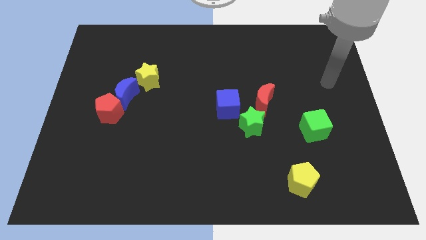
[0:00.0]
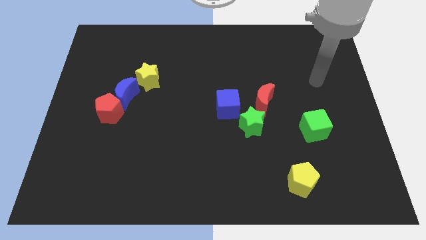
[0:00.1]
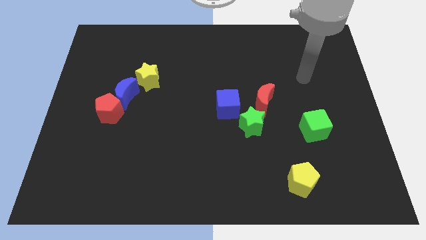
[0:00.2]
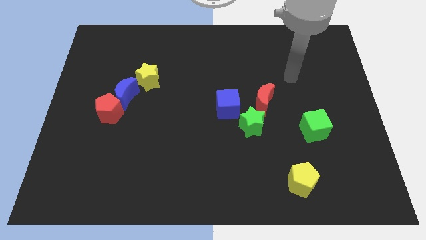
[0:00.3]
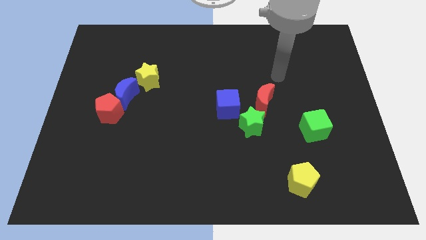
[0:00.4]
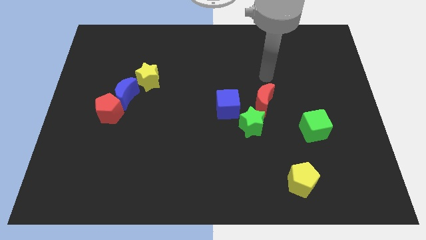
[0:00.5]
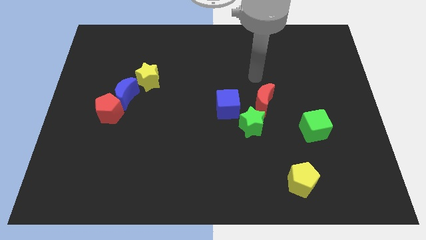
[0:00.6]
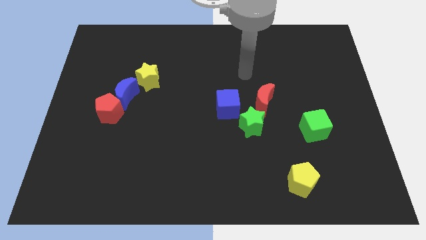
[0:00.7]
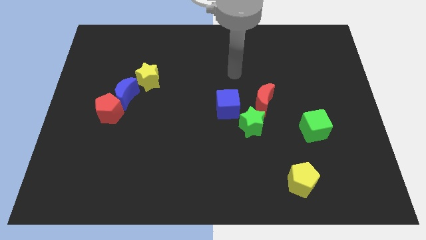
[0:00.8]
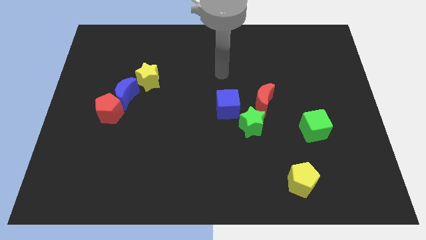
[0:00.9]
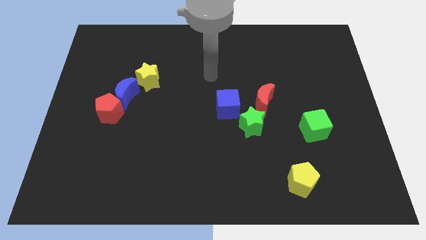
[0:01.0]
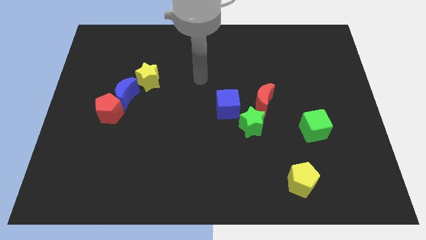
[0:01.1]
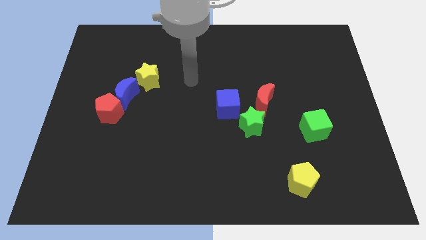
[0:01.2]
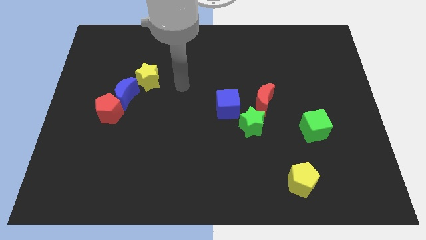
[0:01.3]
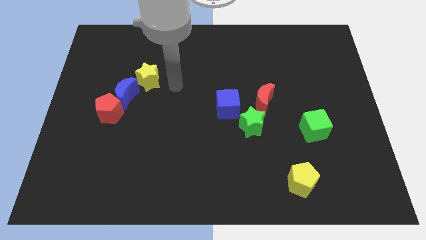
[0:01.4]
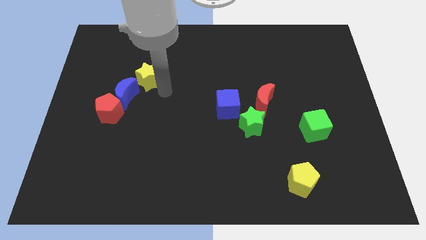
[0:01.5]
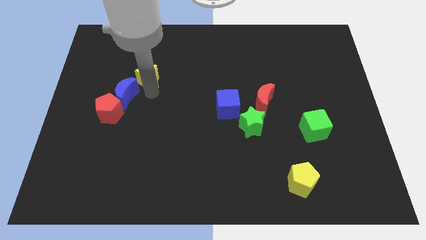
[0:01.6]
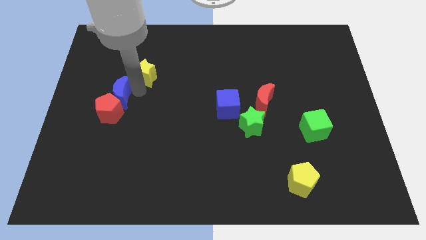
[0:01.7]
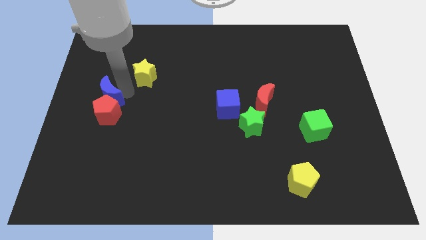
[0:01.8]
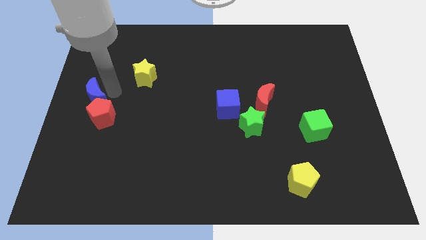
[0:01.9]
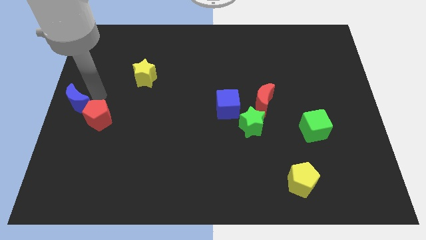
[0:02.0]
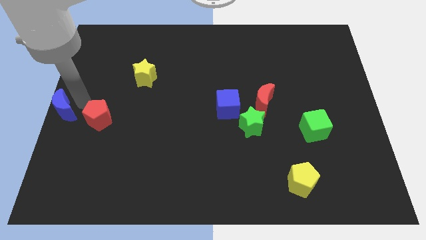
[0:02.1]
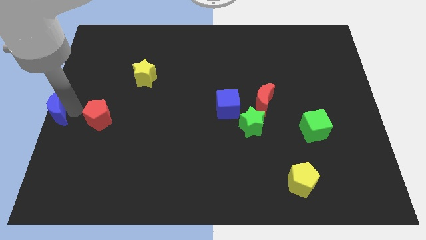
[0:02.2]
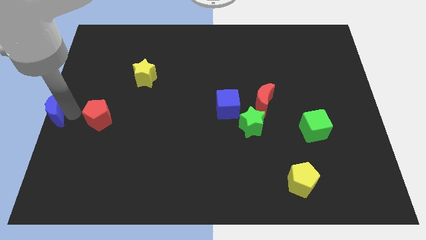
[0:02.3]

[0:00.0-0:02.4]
separate the red pentagon from the blue moon

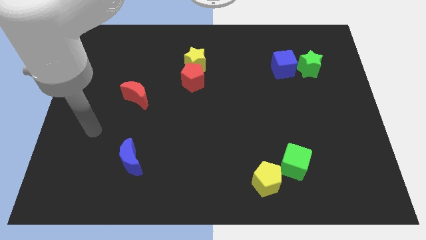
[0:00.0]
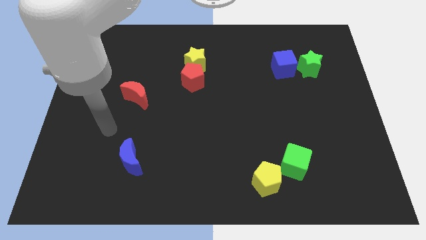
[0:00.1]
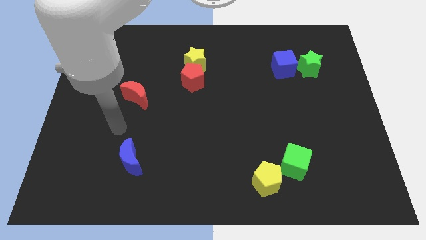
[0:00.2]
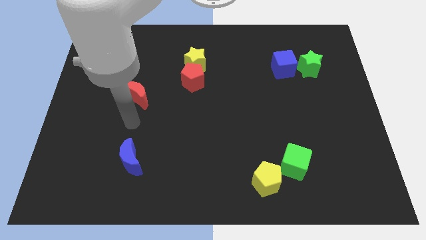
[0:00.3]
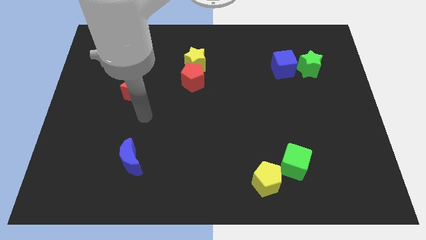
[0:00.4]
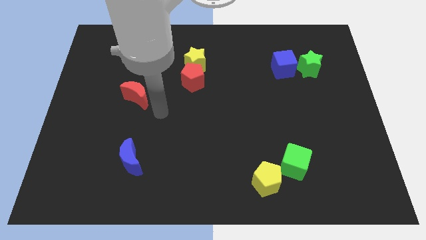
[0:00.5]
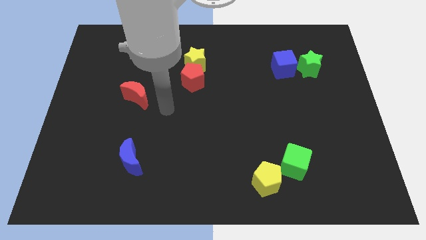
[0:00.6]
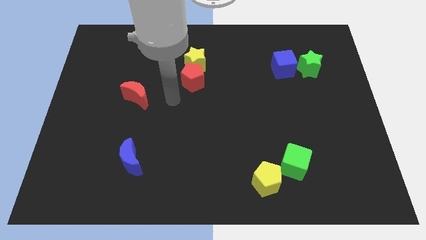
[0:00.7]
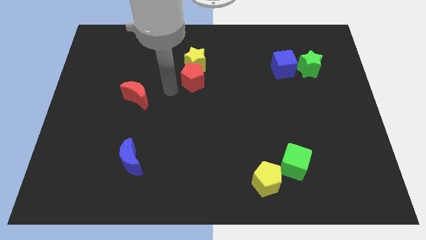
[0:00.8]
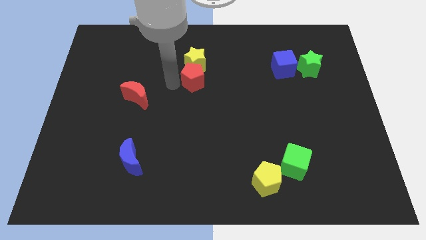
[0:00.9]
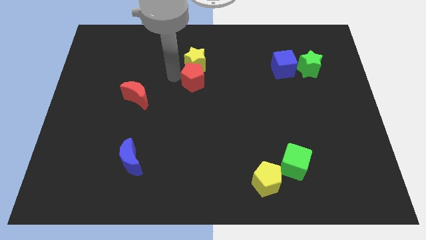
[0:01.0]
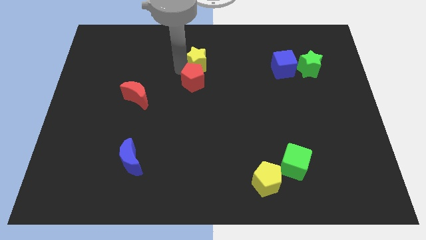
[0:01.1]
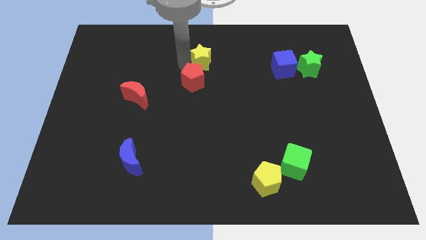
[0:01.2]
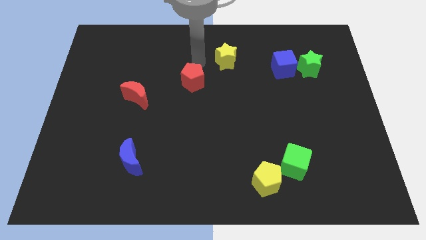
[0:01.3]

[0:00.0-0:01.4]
pull the red pentagon apart from the yellow star

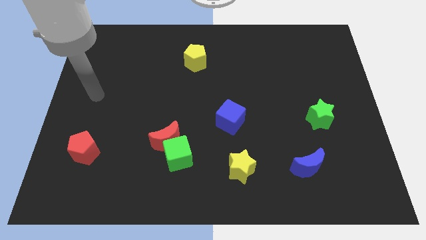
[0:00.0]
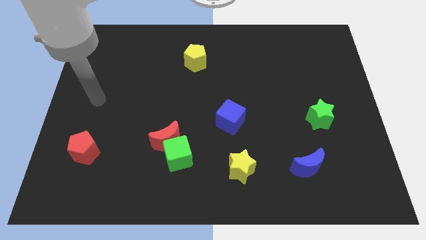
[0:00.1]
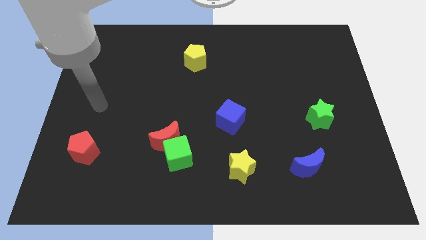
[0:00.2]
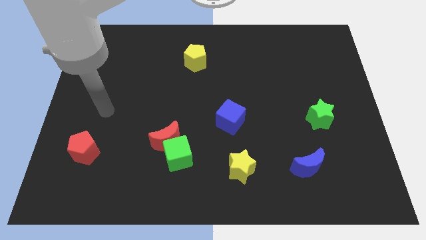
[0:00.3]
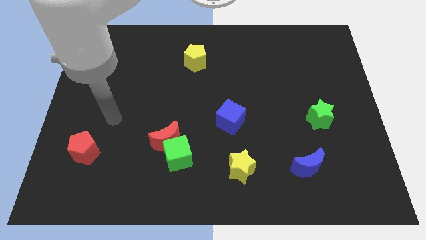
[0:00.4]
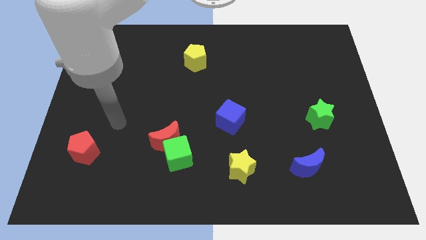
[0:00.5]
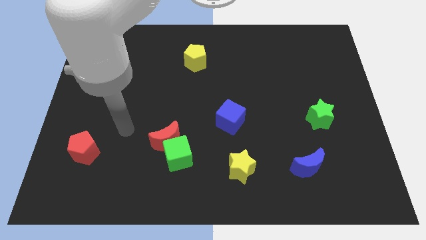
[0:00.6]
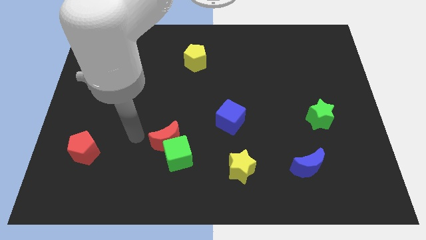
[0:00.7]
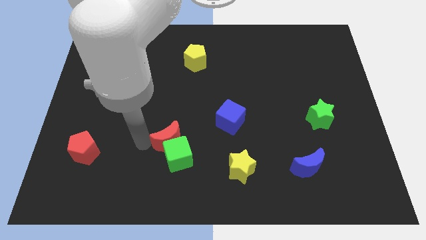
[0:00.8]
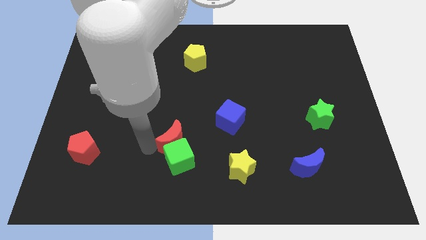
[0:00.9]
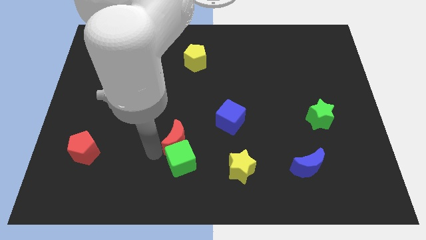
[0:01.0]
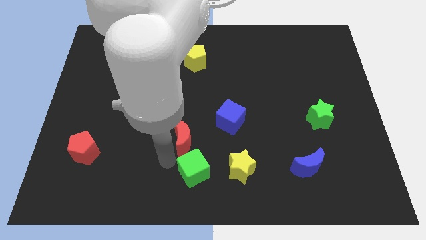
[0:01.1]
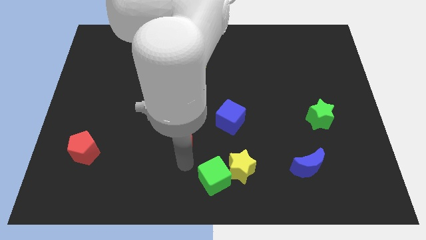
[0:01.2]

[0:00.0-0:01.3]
move the red moon away from the green cube

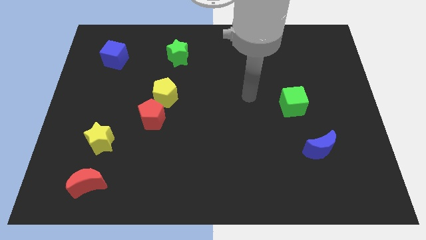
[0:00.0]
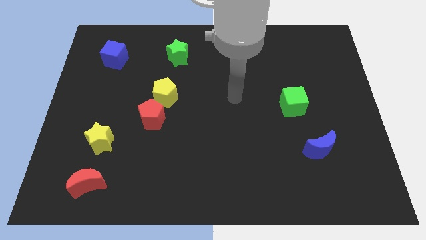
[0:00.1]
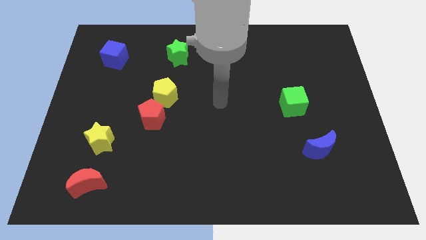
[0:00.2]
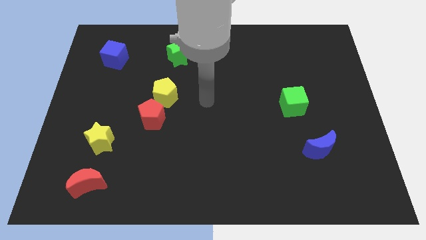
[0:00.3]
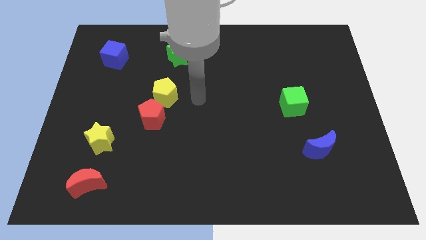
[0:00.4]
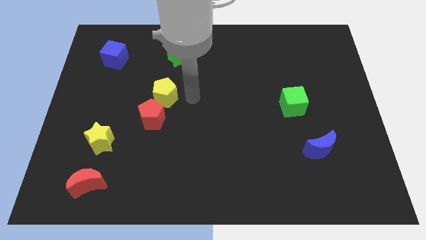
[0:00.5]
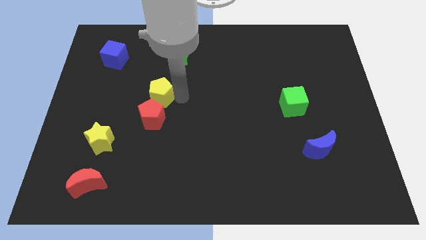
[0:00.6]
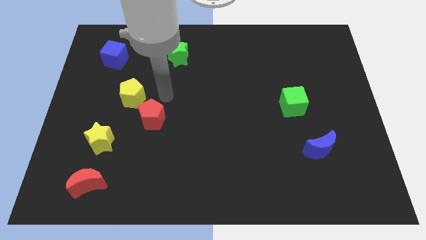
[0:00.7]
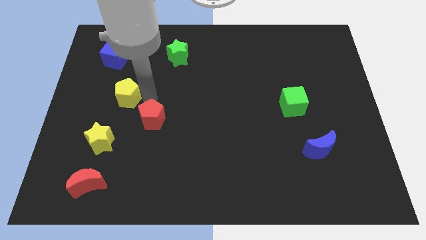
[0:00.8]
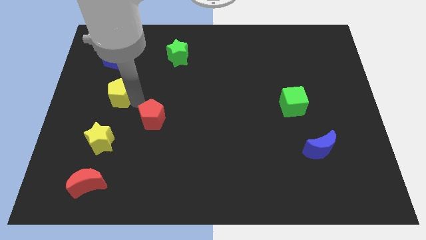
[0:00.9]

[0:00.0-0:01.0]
separate the red pentagon from the yellow pentagon

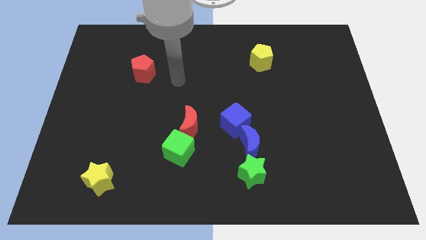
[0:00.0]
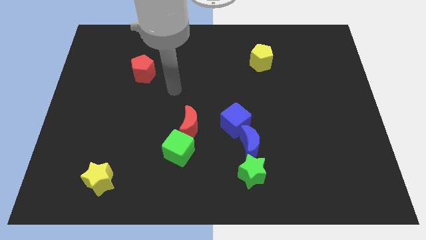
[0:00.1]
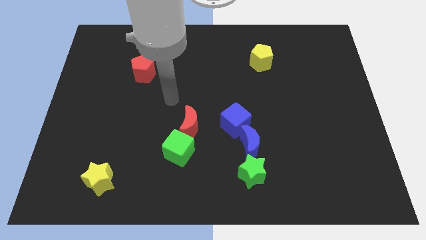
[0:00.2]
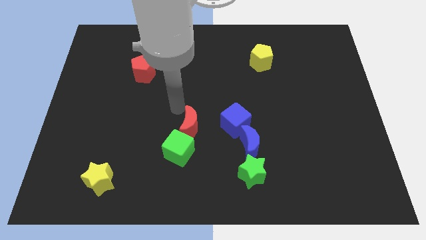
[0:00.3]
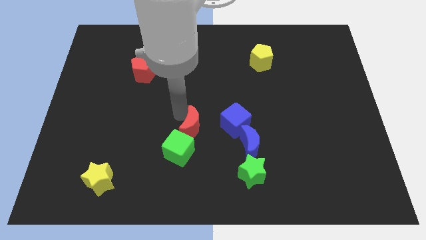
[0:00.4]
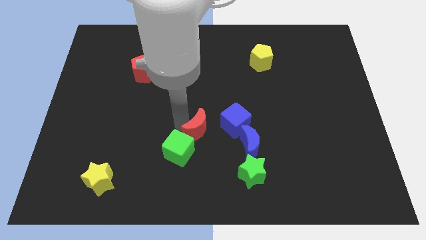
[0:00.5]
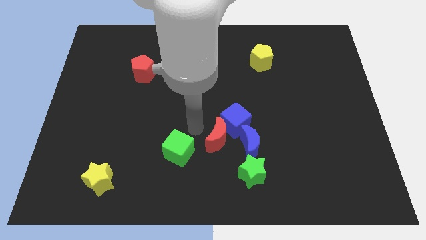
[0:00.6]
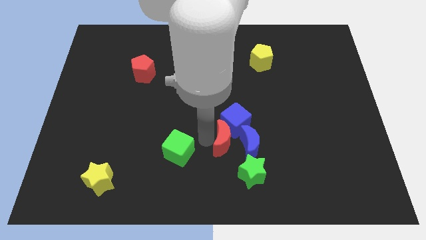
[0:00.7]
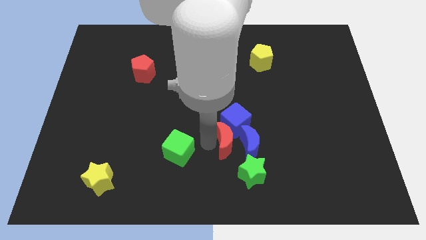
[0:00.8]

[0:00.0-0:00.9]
move the green cube away from the red moon

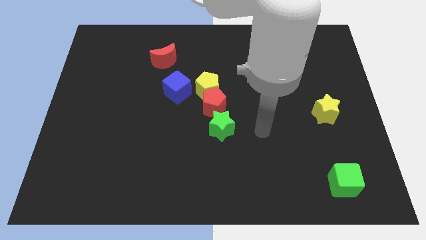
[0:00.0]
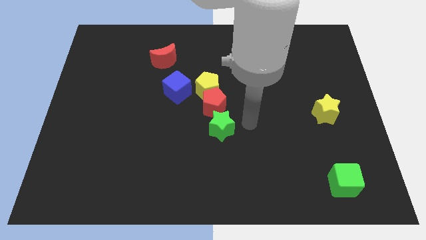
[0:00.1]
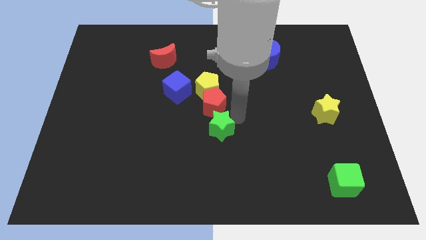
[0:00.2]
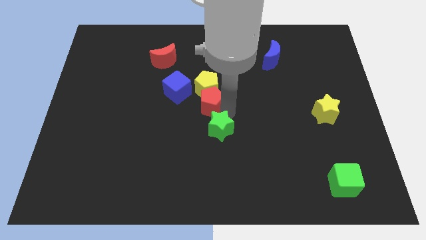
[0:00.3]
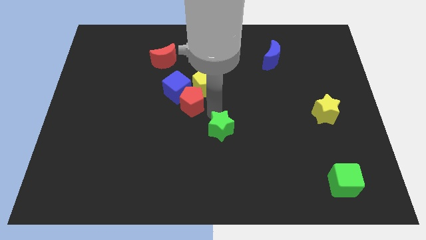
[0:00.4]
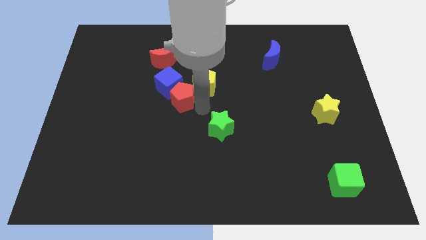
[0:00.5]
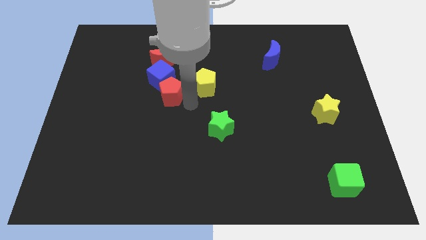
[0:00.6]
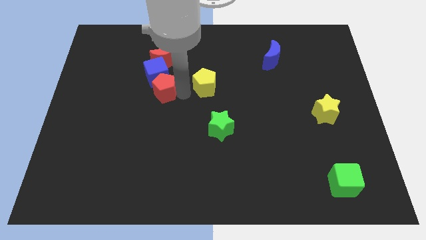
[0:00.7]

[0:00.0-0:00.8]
pull the yellow pentagon apart from the red pentagon and blue cube

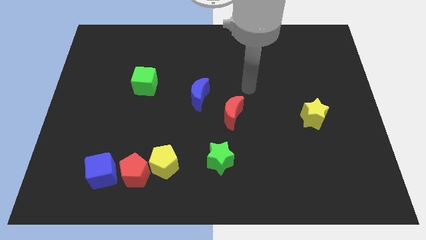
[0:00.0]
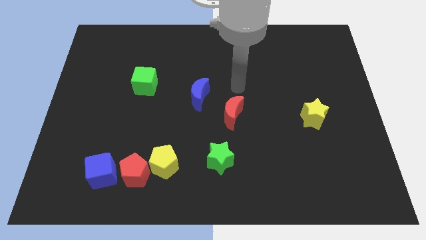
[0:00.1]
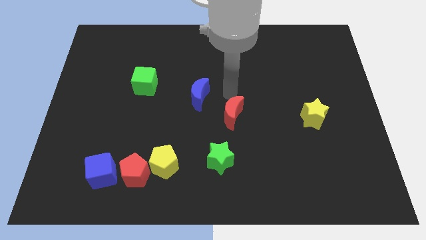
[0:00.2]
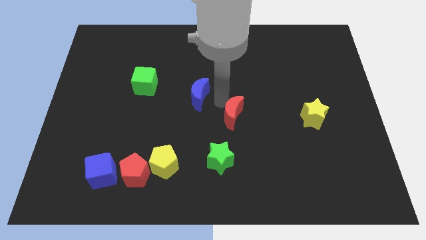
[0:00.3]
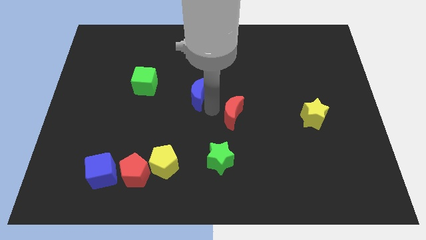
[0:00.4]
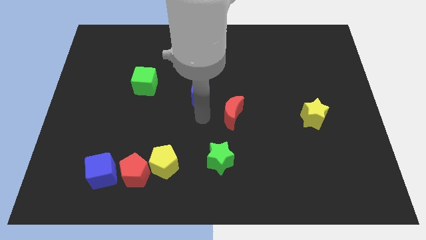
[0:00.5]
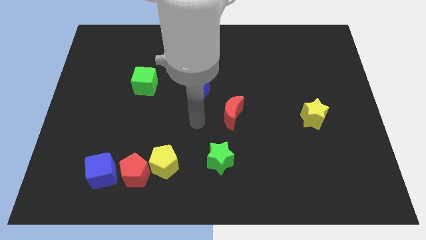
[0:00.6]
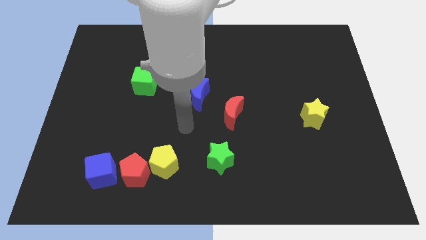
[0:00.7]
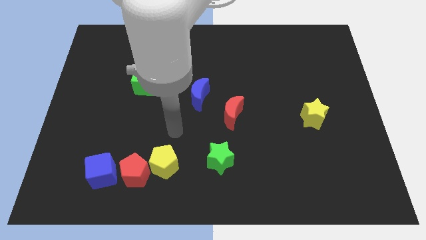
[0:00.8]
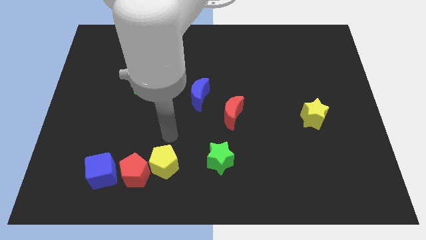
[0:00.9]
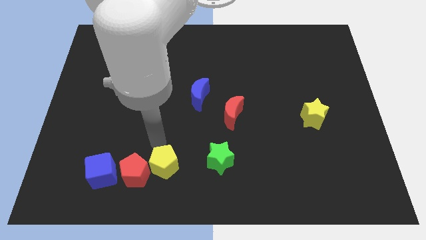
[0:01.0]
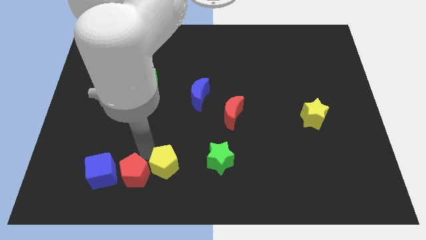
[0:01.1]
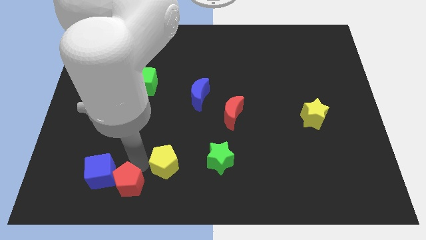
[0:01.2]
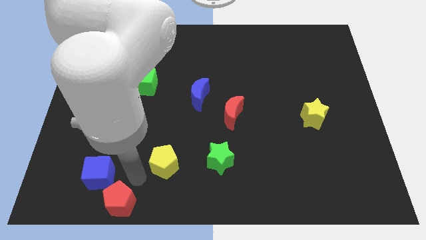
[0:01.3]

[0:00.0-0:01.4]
move the yellow pentagon away from the red pentagon

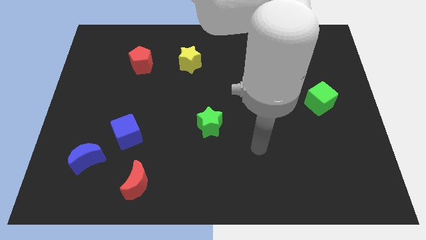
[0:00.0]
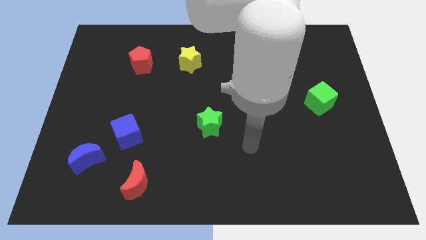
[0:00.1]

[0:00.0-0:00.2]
move the blue moon away from the blue cube
